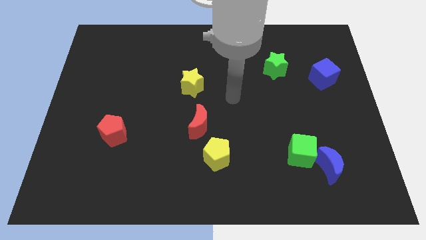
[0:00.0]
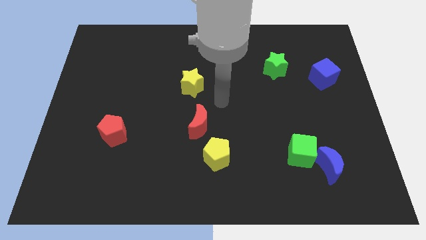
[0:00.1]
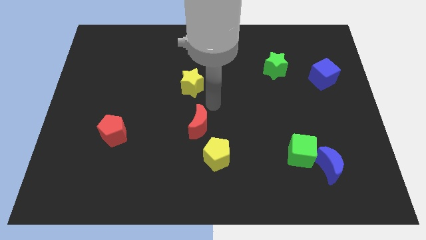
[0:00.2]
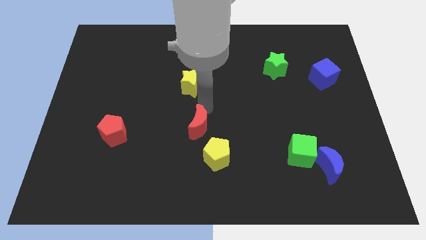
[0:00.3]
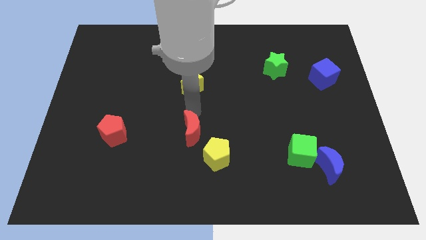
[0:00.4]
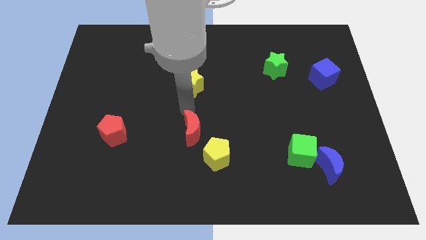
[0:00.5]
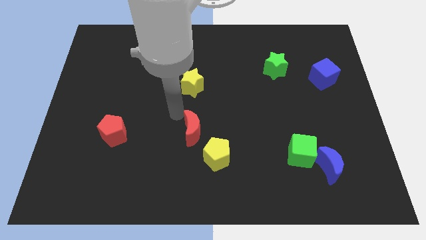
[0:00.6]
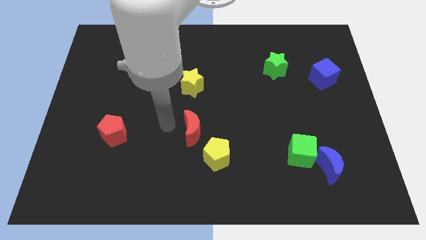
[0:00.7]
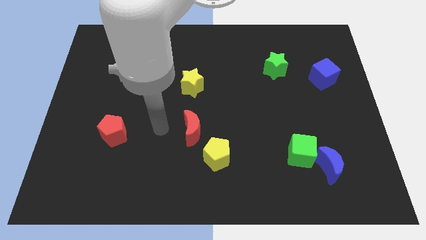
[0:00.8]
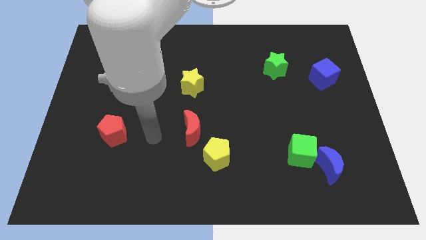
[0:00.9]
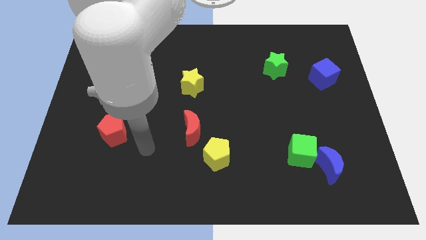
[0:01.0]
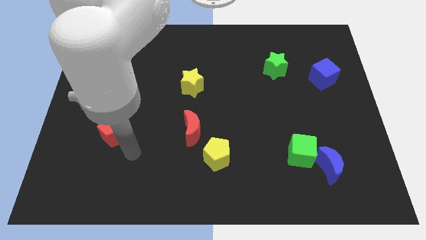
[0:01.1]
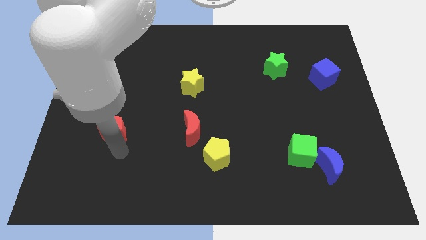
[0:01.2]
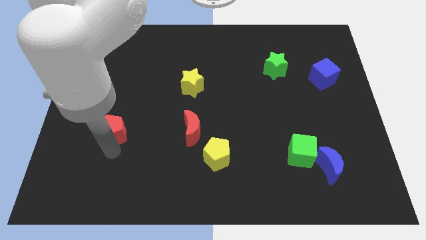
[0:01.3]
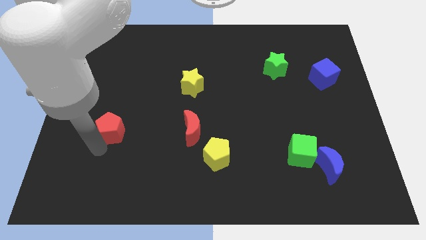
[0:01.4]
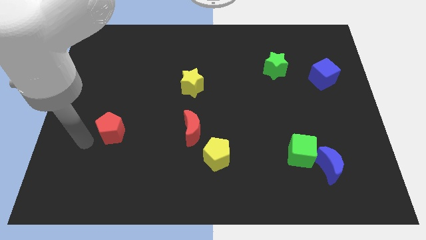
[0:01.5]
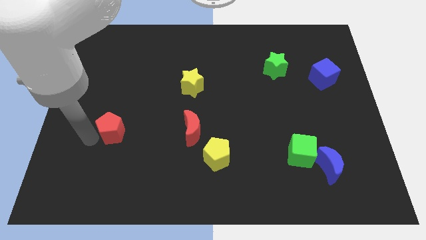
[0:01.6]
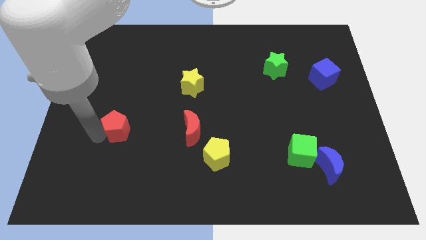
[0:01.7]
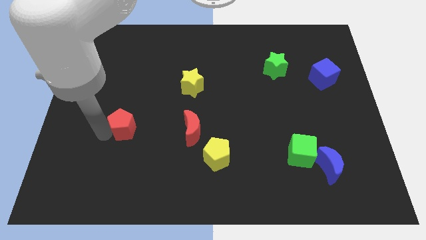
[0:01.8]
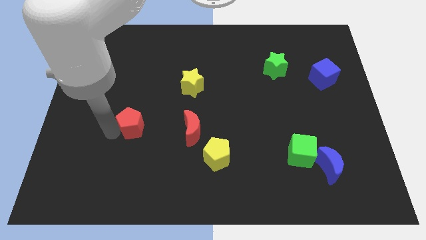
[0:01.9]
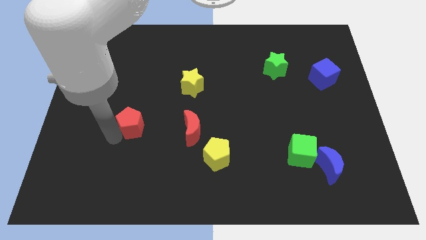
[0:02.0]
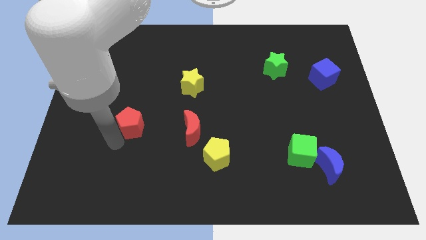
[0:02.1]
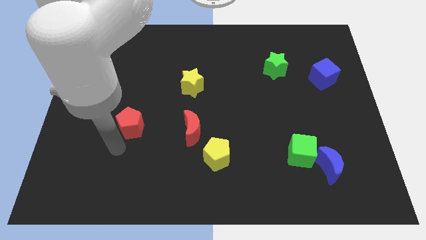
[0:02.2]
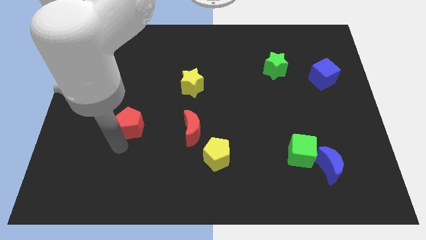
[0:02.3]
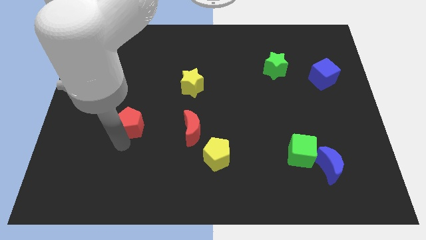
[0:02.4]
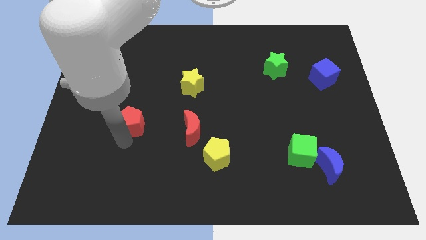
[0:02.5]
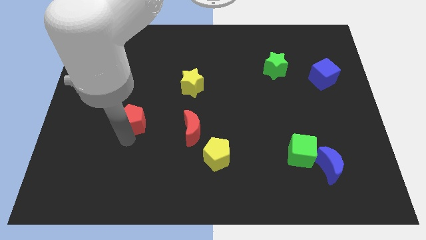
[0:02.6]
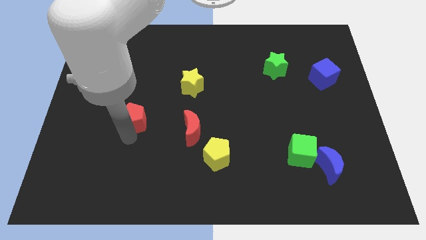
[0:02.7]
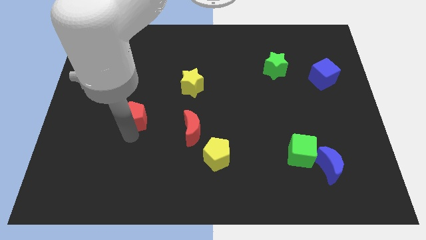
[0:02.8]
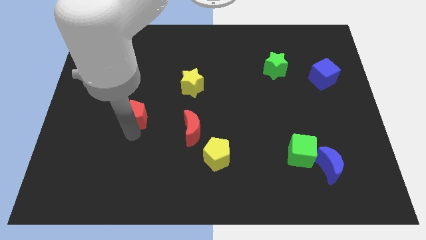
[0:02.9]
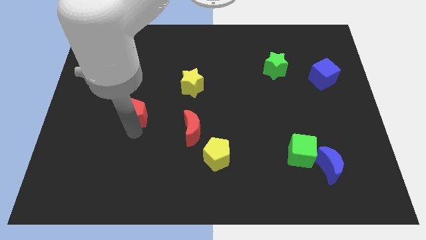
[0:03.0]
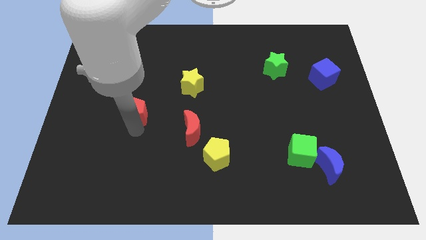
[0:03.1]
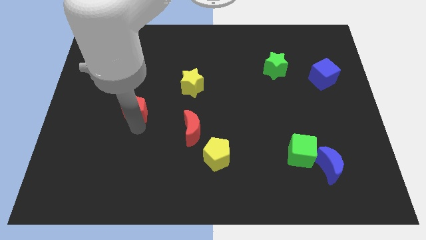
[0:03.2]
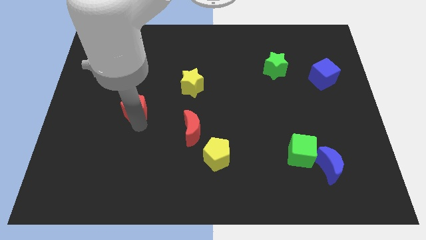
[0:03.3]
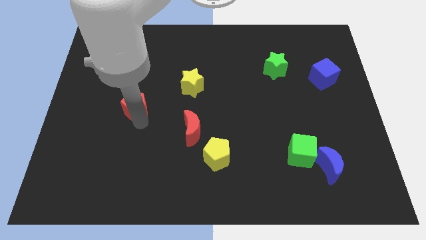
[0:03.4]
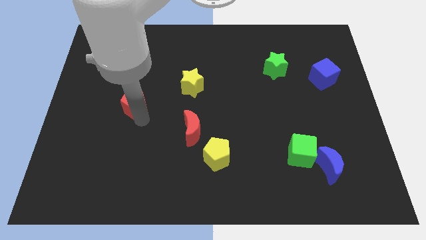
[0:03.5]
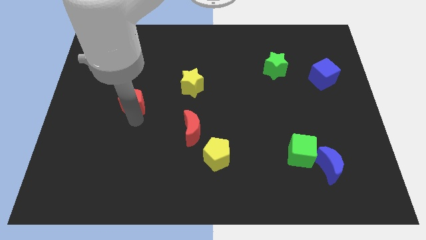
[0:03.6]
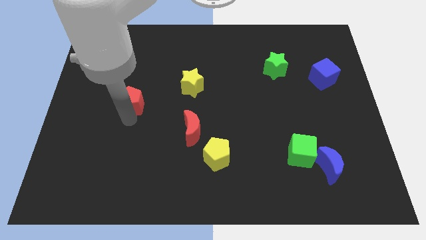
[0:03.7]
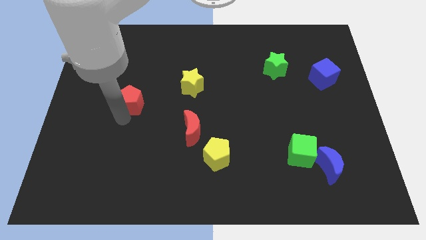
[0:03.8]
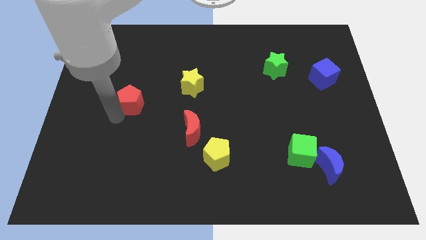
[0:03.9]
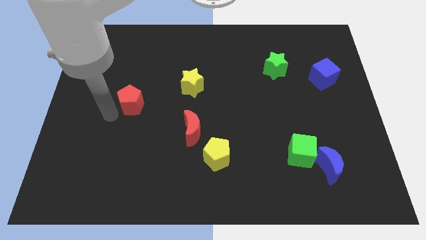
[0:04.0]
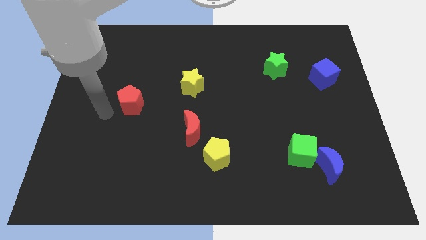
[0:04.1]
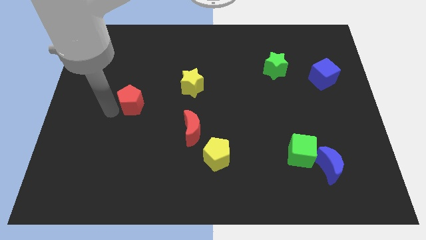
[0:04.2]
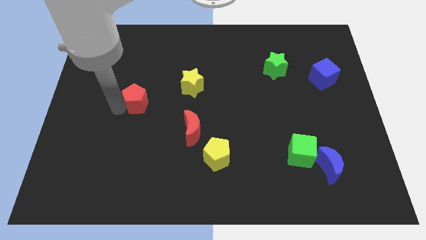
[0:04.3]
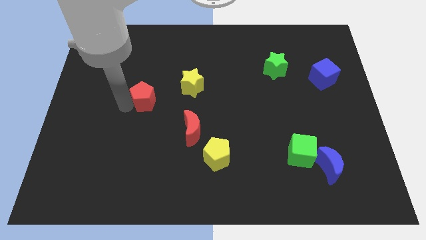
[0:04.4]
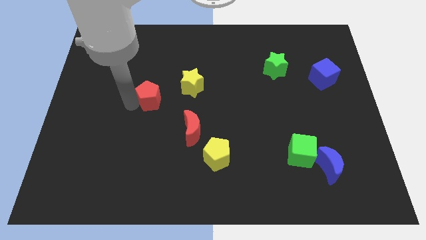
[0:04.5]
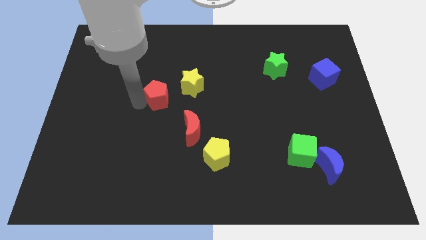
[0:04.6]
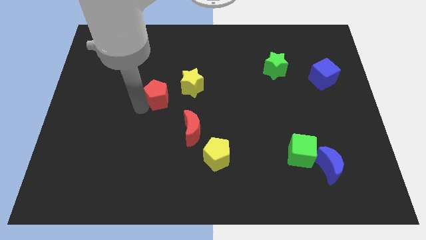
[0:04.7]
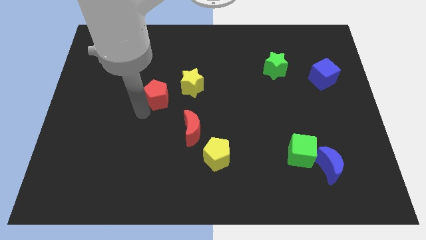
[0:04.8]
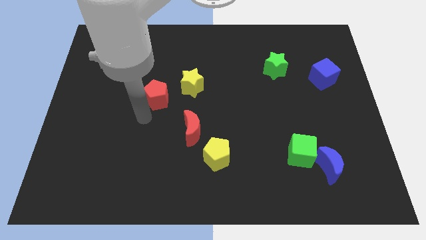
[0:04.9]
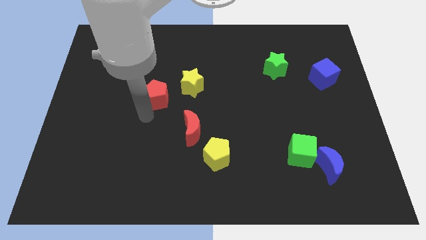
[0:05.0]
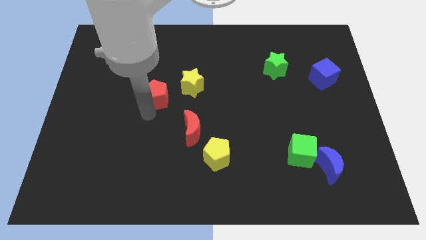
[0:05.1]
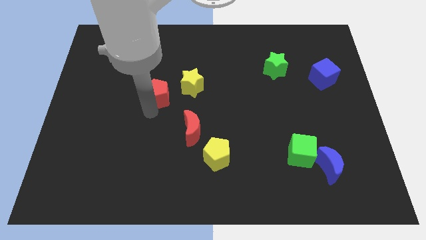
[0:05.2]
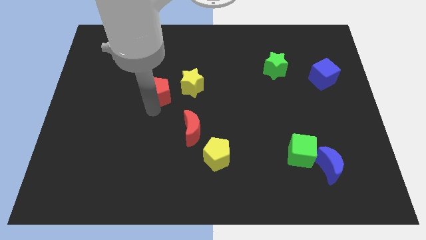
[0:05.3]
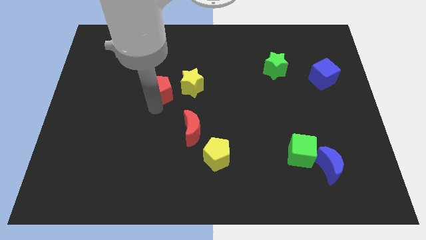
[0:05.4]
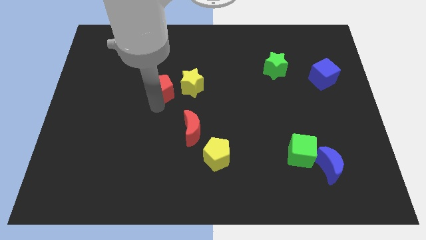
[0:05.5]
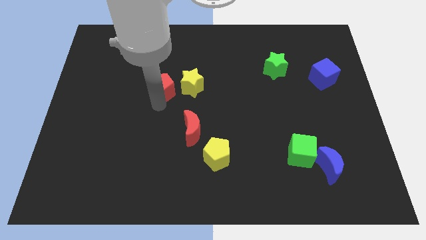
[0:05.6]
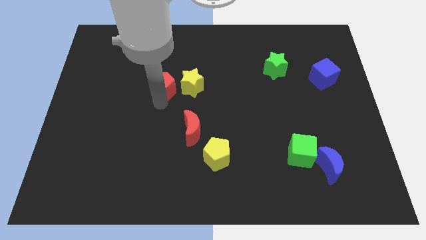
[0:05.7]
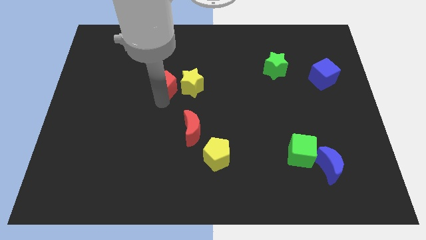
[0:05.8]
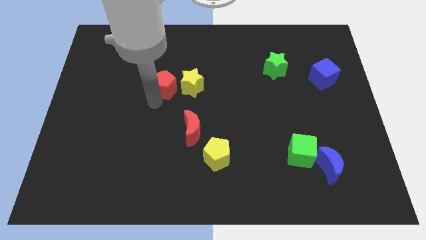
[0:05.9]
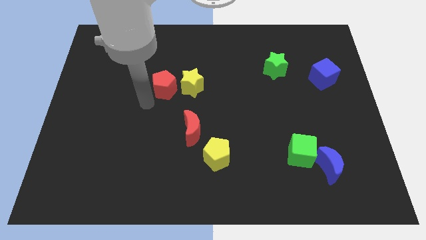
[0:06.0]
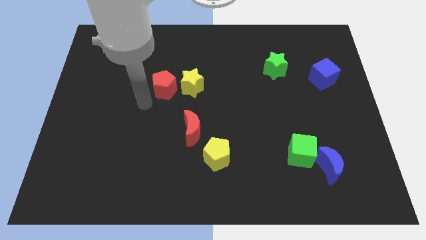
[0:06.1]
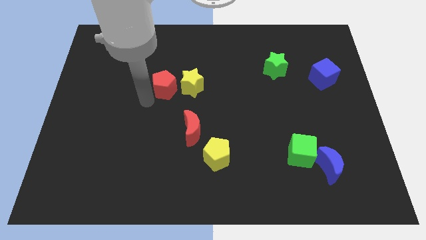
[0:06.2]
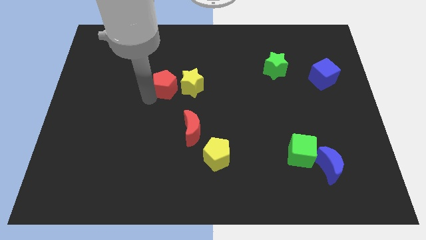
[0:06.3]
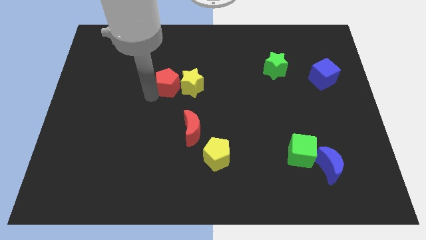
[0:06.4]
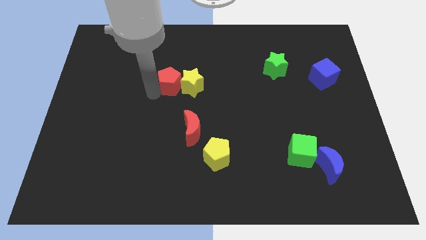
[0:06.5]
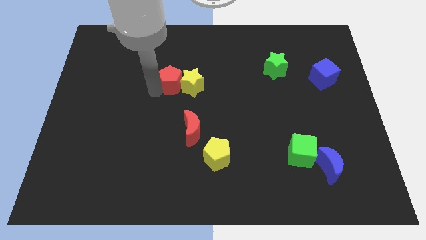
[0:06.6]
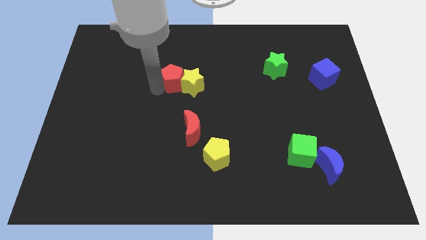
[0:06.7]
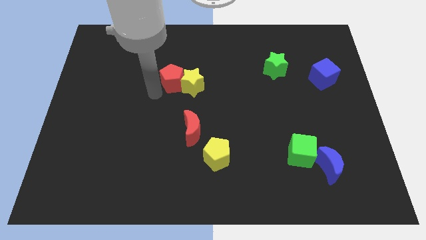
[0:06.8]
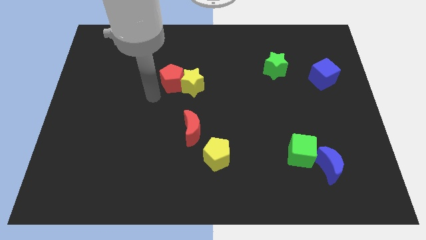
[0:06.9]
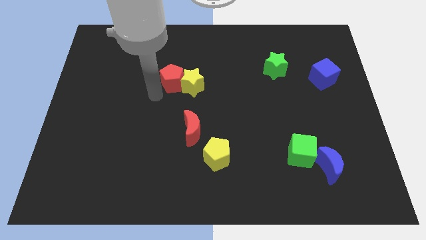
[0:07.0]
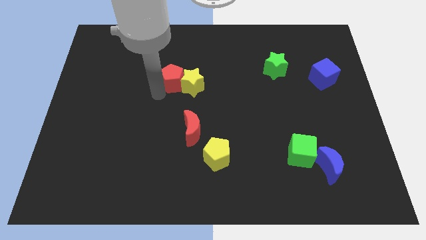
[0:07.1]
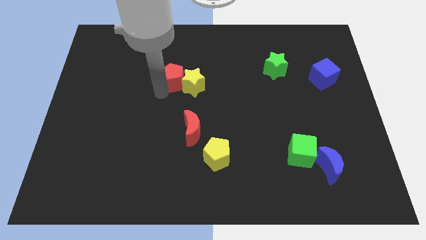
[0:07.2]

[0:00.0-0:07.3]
move the red pentagon diagonally up and right

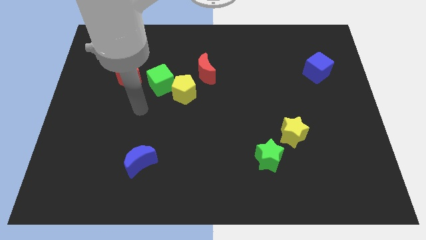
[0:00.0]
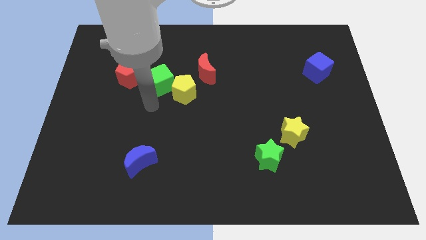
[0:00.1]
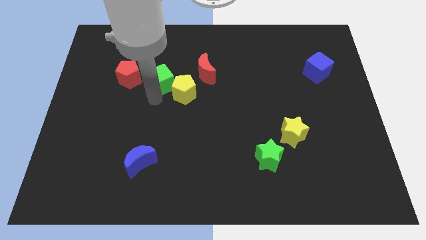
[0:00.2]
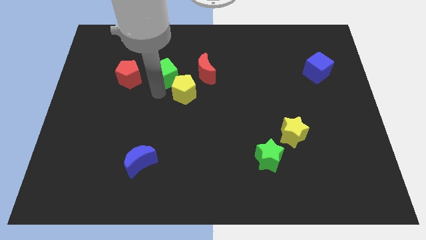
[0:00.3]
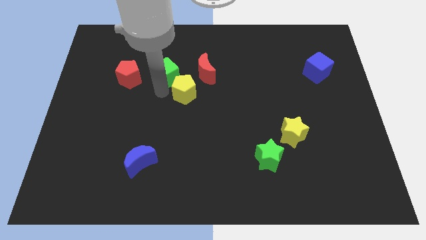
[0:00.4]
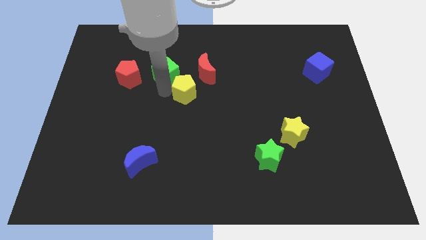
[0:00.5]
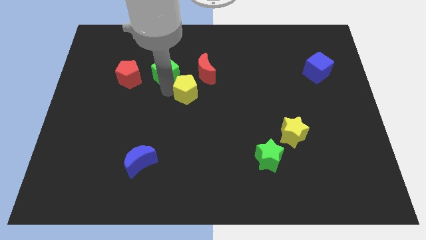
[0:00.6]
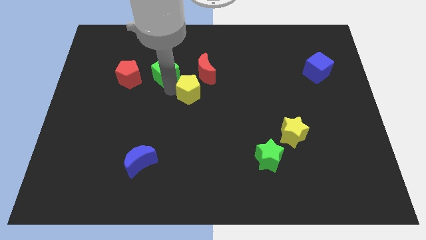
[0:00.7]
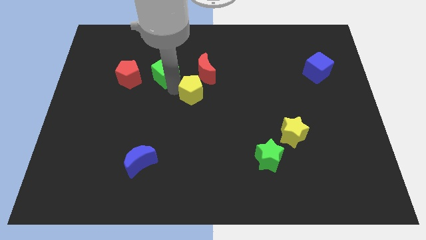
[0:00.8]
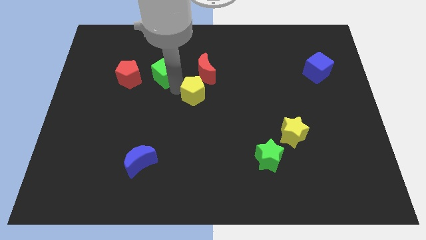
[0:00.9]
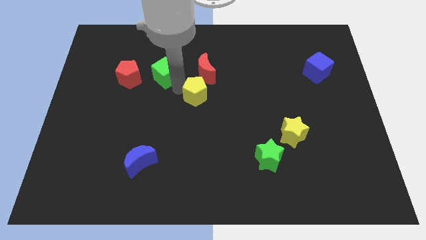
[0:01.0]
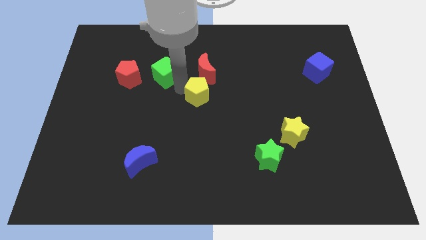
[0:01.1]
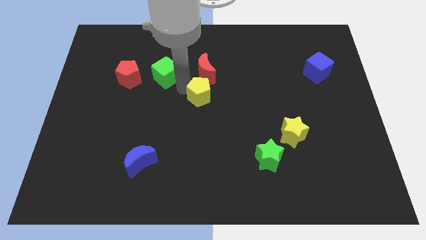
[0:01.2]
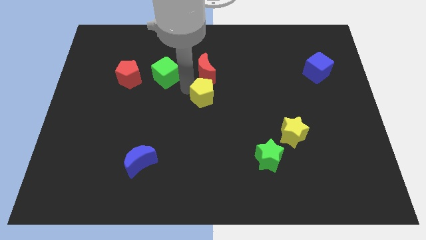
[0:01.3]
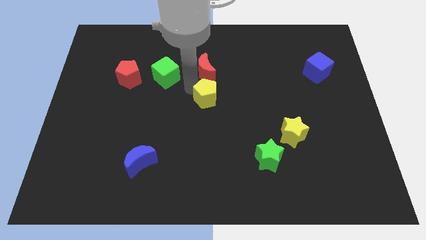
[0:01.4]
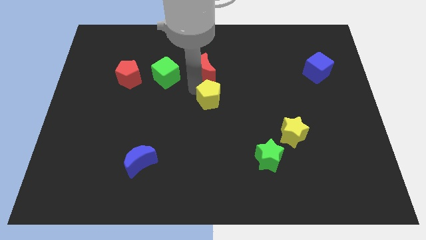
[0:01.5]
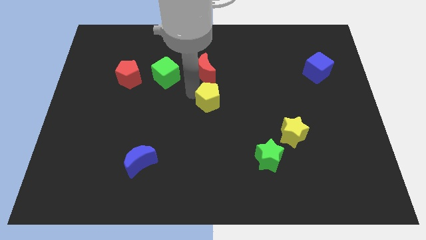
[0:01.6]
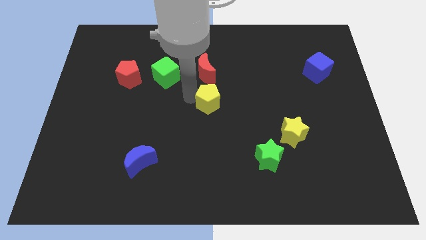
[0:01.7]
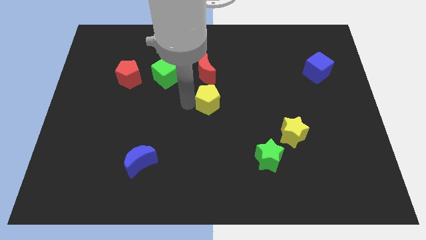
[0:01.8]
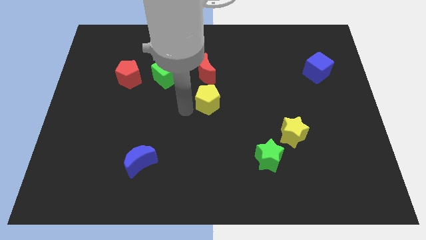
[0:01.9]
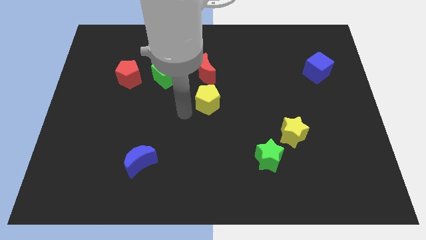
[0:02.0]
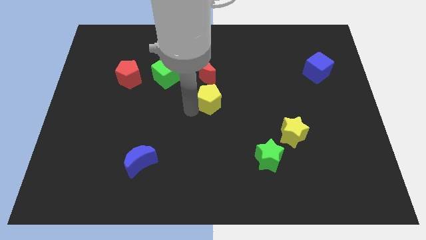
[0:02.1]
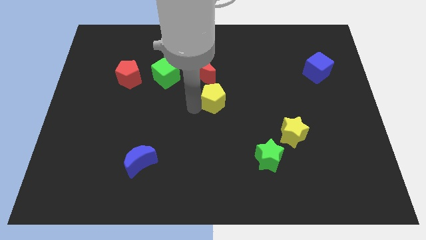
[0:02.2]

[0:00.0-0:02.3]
slide the yellow pentagon right somewhat
